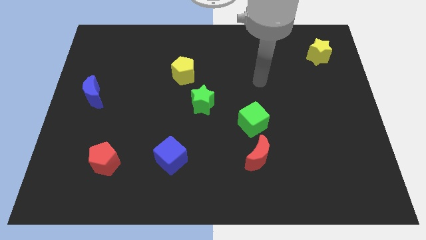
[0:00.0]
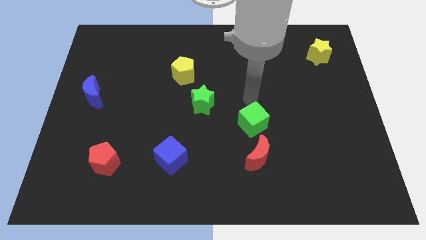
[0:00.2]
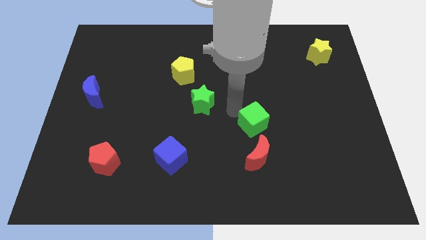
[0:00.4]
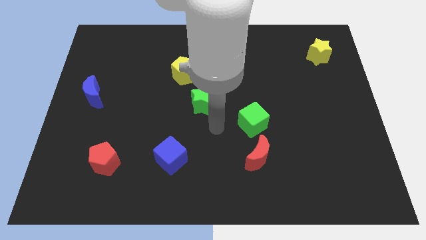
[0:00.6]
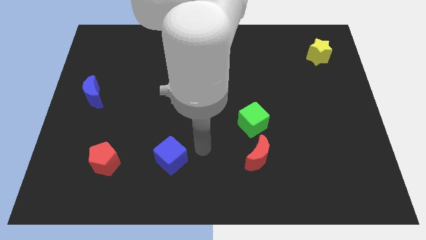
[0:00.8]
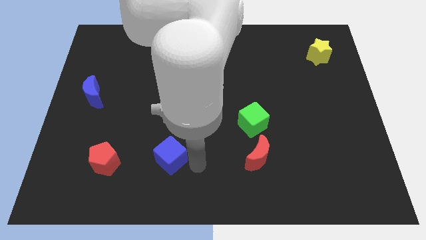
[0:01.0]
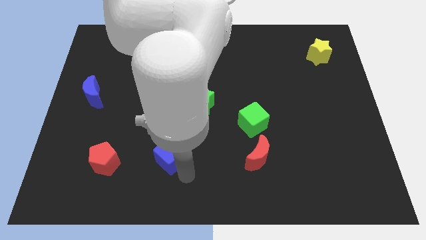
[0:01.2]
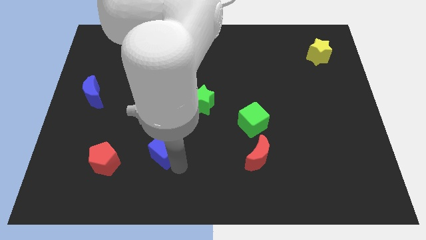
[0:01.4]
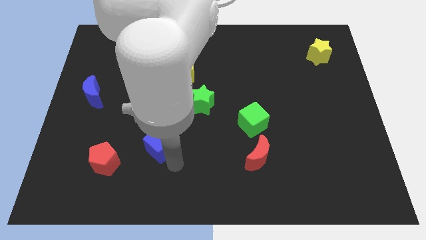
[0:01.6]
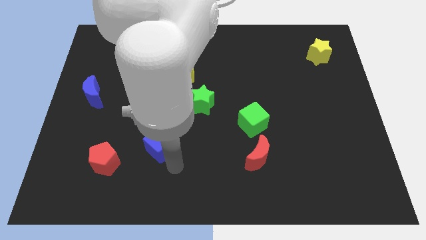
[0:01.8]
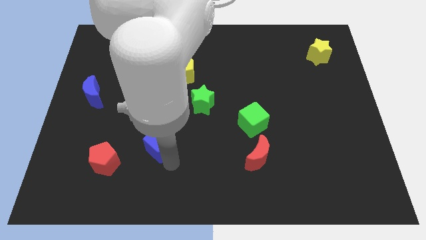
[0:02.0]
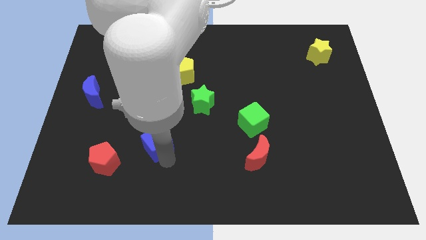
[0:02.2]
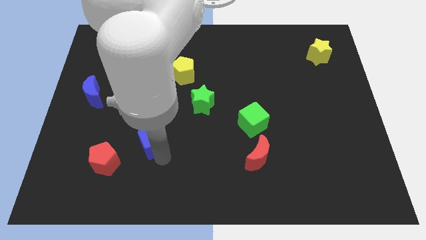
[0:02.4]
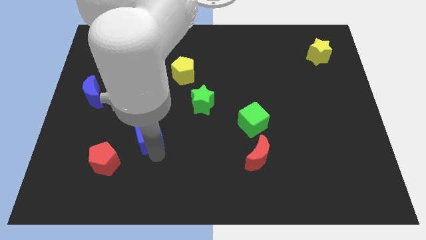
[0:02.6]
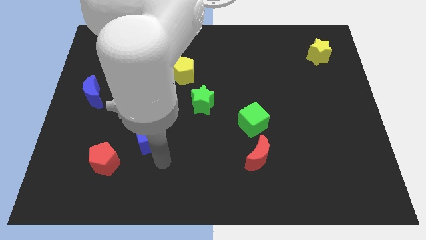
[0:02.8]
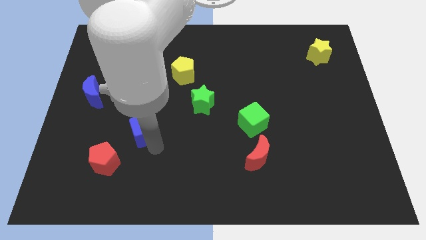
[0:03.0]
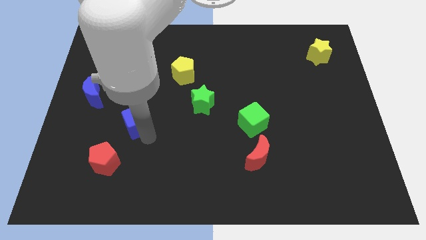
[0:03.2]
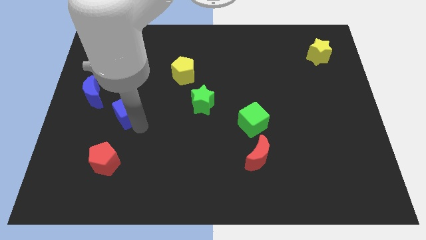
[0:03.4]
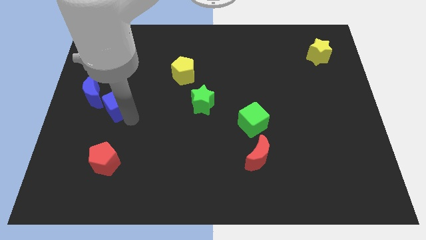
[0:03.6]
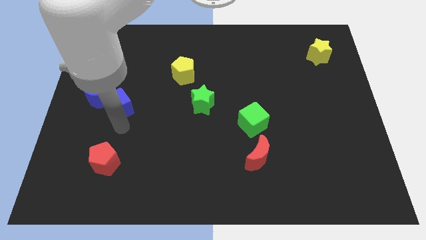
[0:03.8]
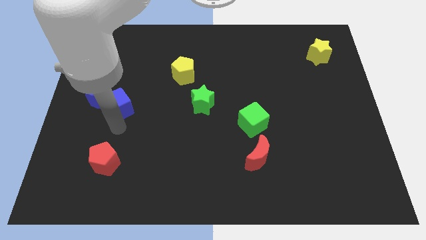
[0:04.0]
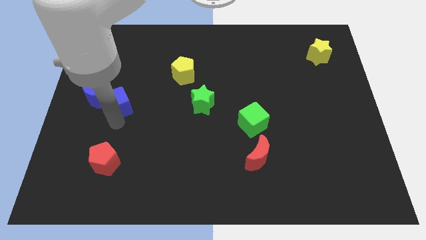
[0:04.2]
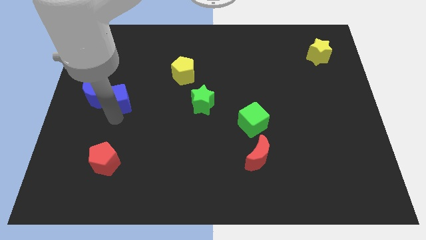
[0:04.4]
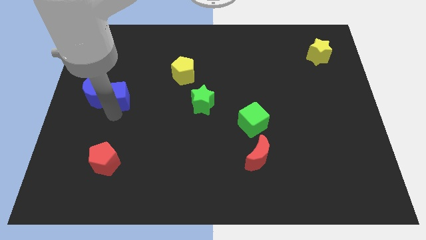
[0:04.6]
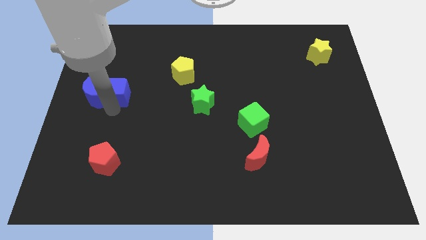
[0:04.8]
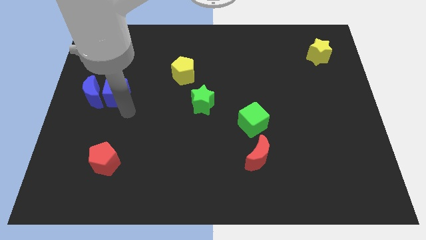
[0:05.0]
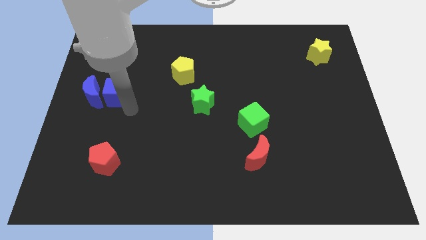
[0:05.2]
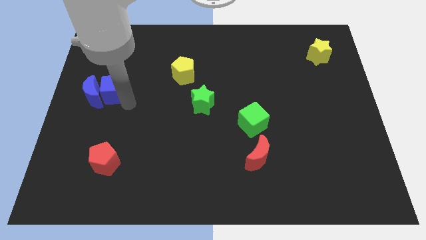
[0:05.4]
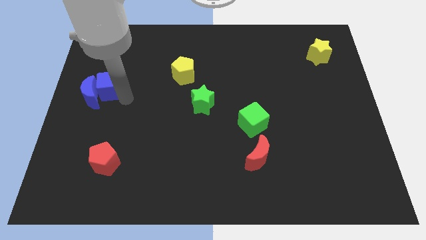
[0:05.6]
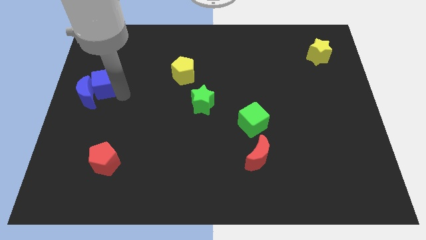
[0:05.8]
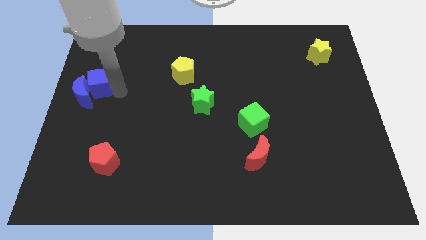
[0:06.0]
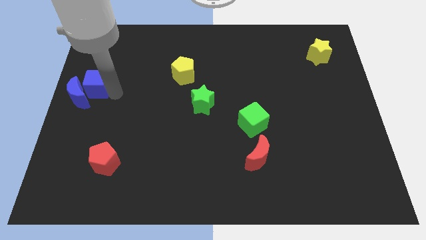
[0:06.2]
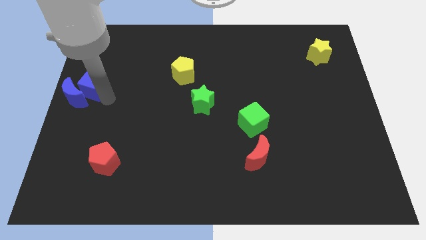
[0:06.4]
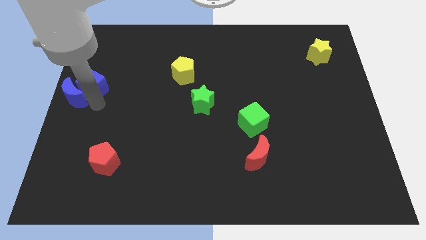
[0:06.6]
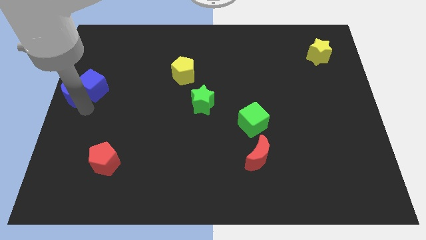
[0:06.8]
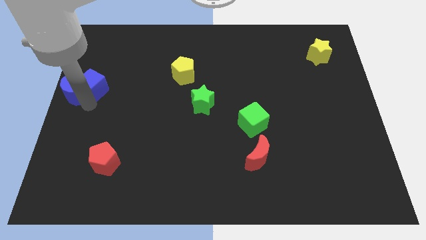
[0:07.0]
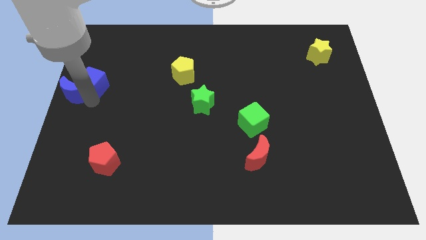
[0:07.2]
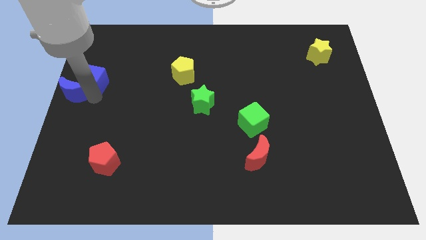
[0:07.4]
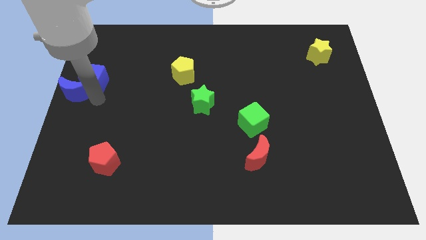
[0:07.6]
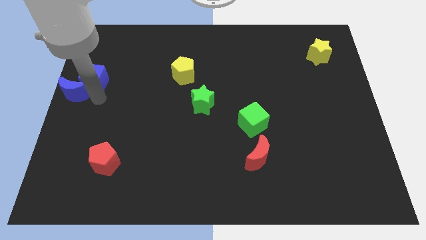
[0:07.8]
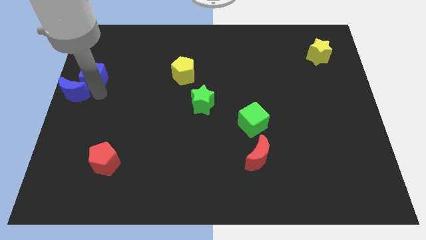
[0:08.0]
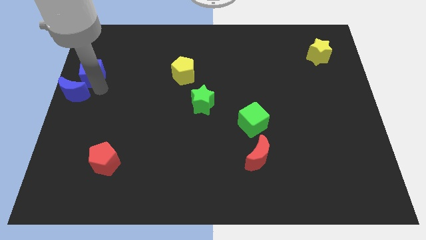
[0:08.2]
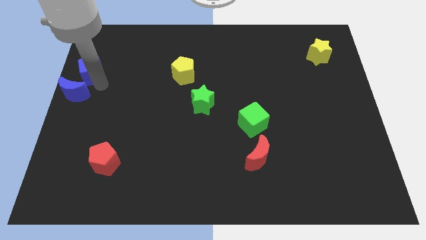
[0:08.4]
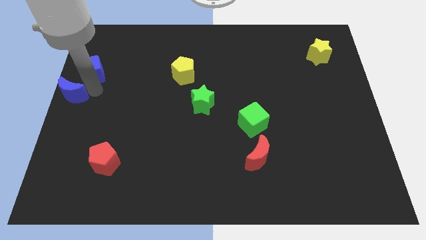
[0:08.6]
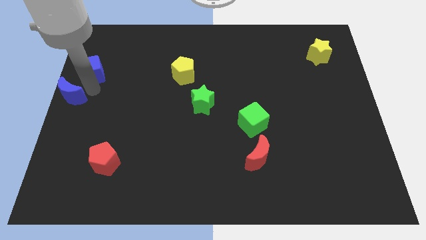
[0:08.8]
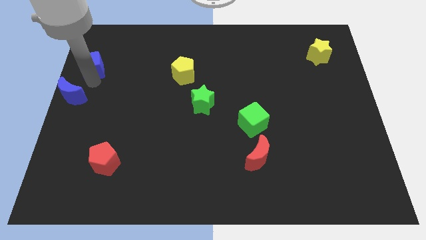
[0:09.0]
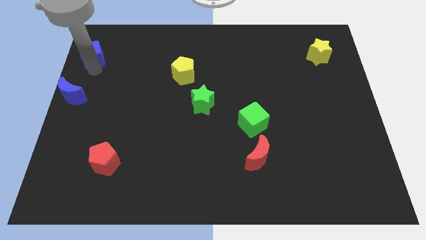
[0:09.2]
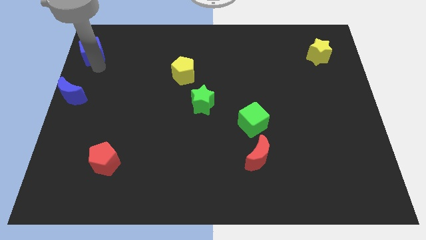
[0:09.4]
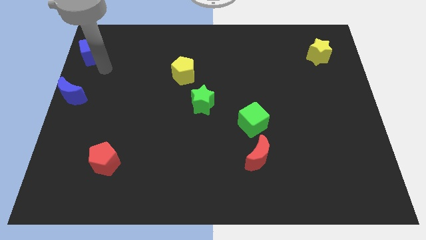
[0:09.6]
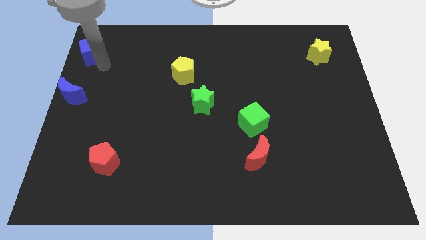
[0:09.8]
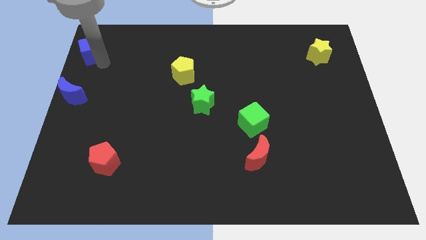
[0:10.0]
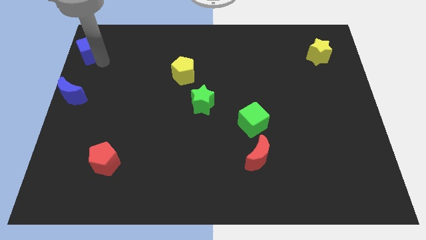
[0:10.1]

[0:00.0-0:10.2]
move the blue cube to the top left of the board

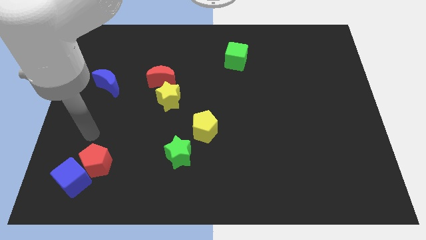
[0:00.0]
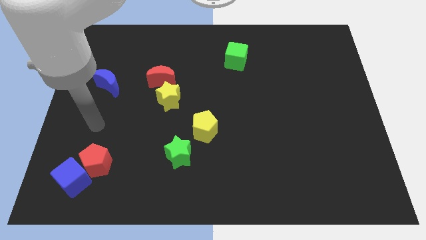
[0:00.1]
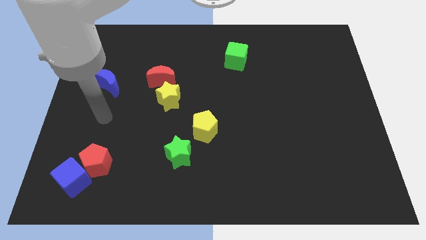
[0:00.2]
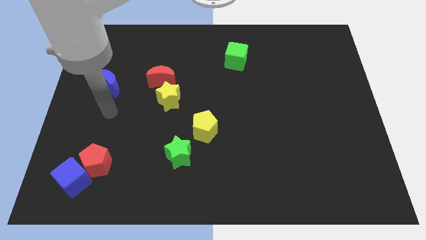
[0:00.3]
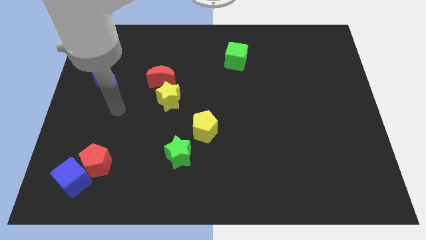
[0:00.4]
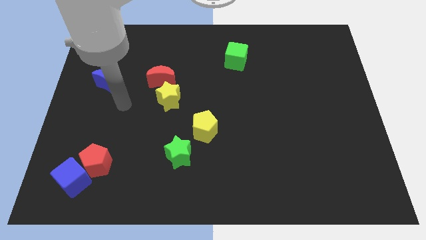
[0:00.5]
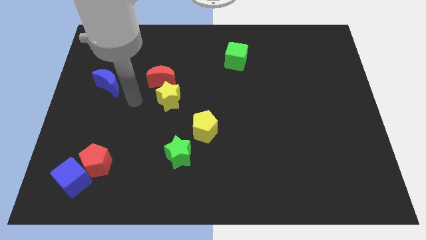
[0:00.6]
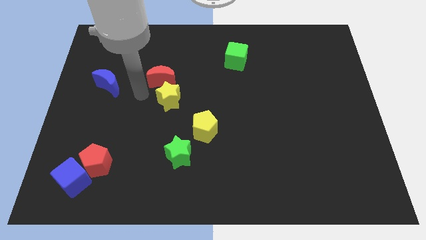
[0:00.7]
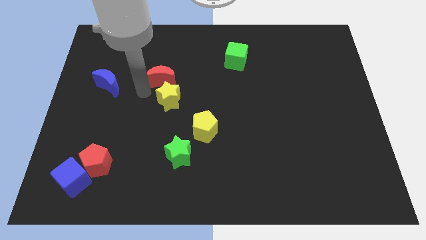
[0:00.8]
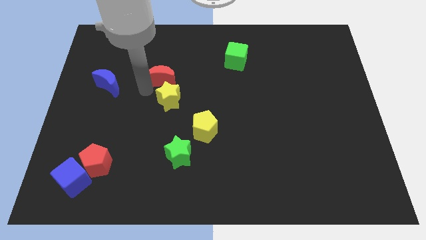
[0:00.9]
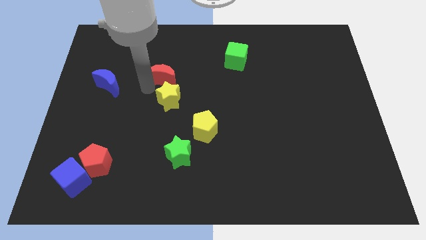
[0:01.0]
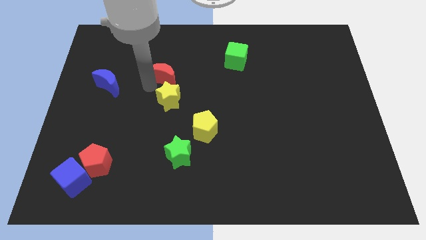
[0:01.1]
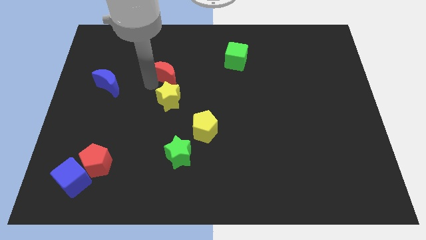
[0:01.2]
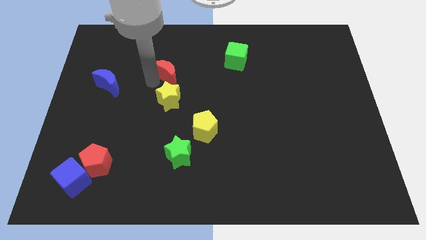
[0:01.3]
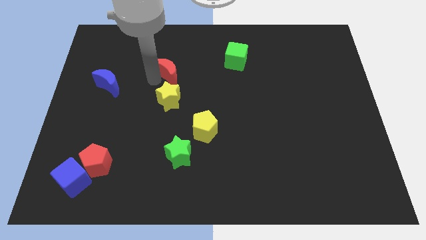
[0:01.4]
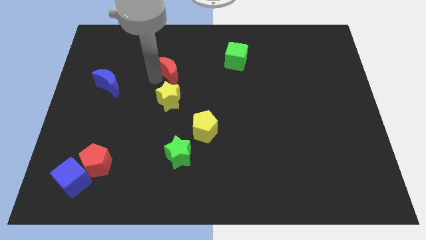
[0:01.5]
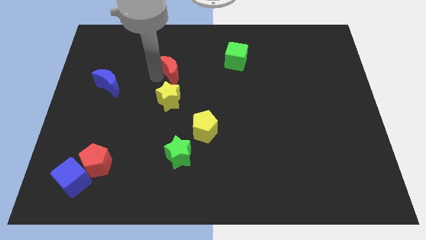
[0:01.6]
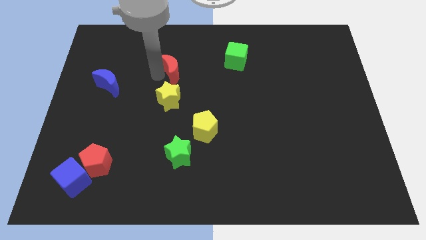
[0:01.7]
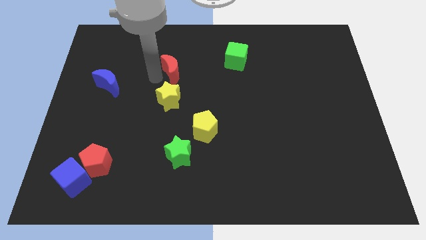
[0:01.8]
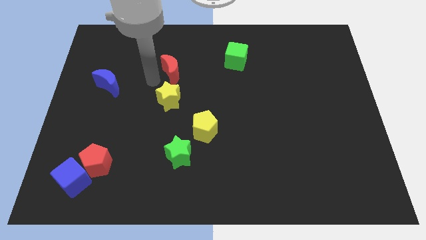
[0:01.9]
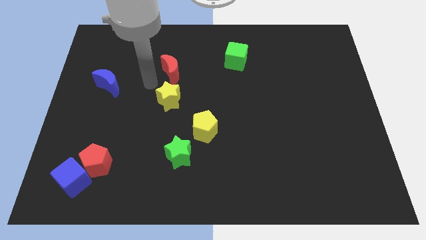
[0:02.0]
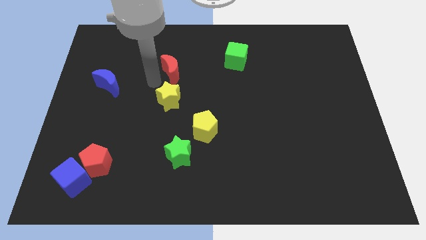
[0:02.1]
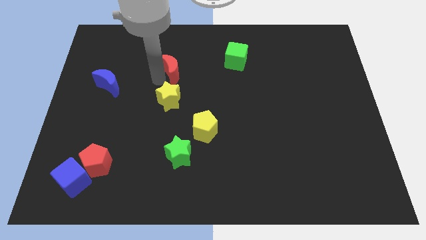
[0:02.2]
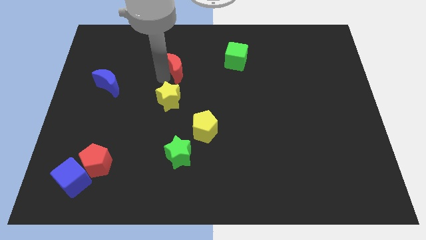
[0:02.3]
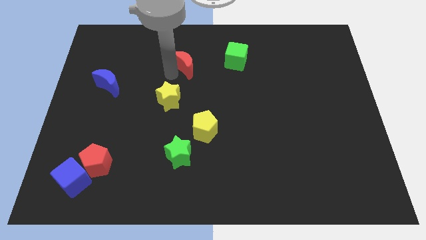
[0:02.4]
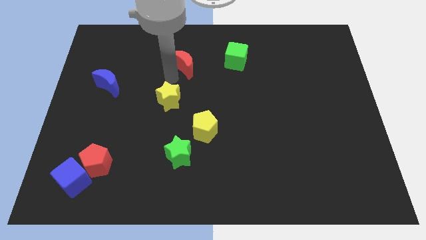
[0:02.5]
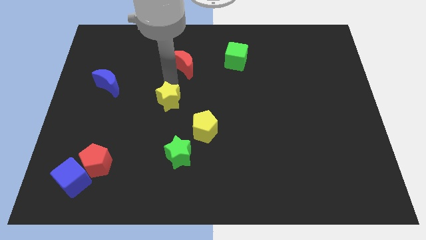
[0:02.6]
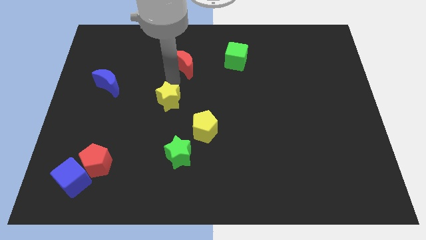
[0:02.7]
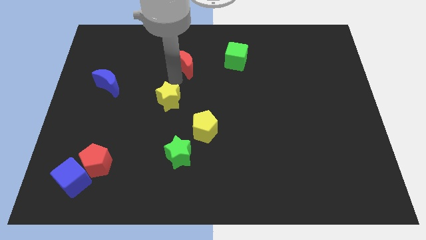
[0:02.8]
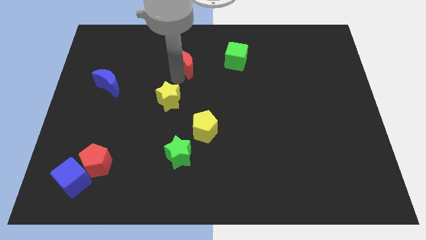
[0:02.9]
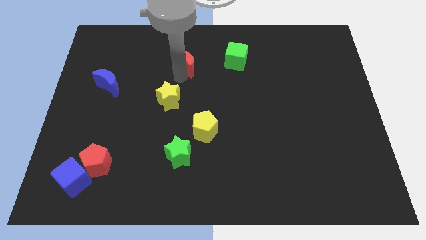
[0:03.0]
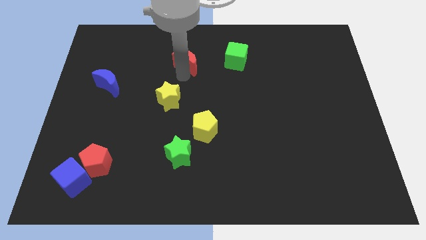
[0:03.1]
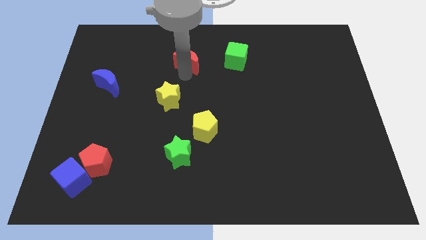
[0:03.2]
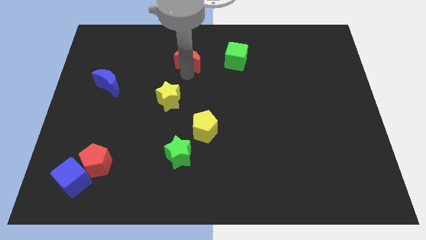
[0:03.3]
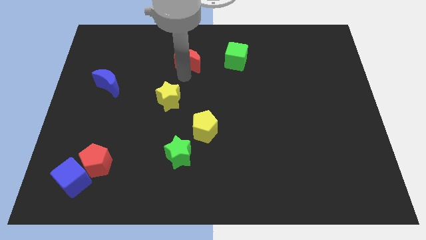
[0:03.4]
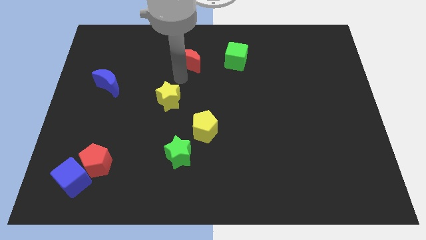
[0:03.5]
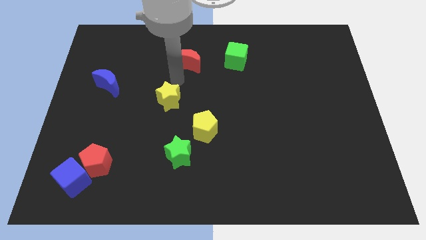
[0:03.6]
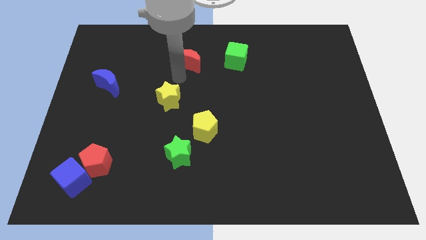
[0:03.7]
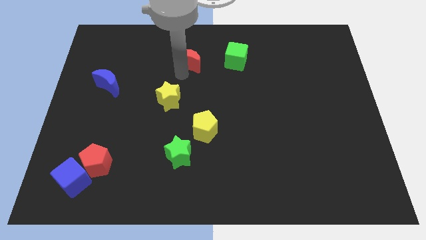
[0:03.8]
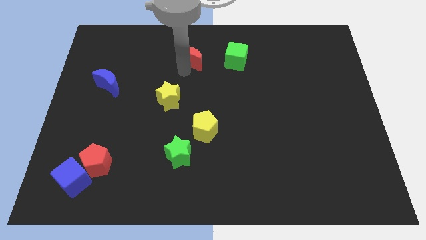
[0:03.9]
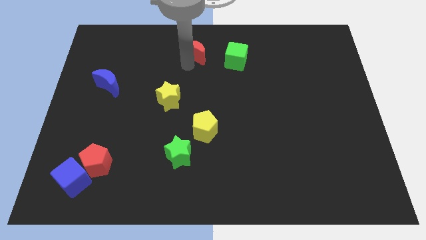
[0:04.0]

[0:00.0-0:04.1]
push the red moon to the top
